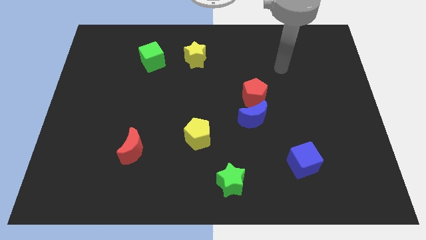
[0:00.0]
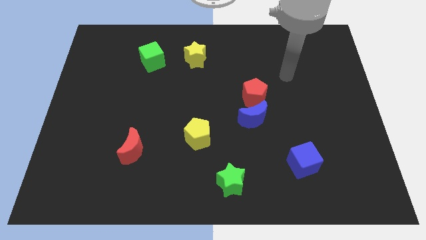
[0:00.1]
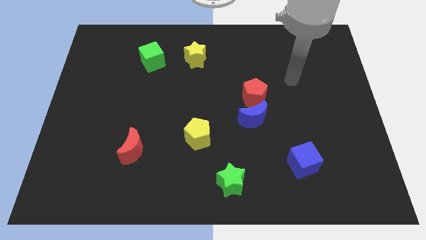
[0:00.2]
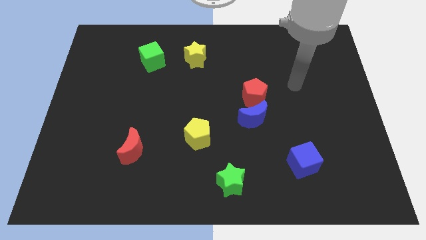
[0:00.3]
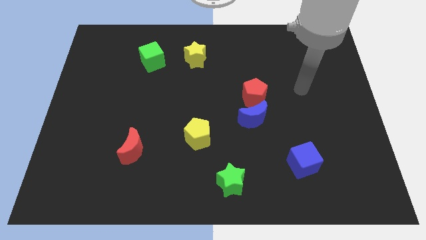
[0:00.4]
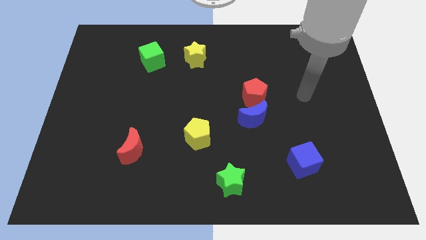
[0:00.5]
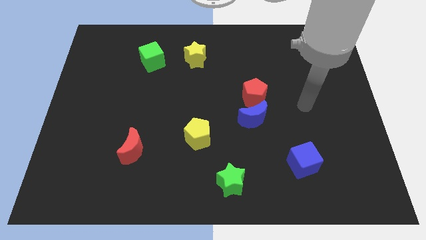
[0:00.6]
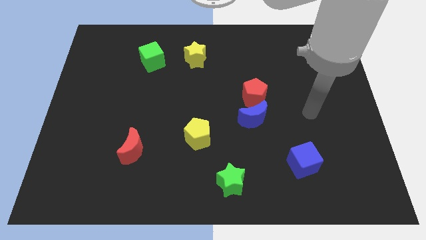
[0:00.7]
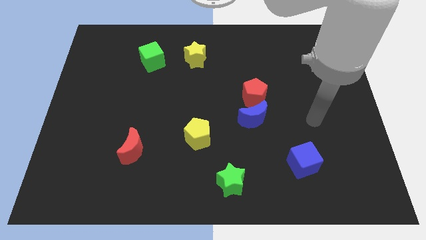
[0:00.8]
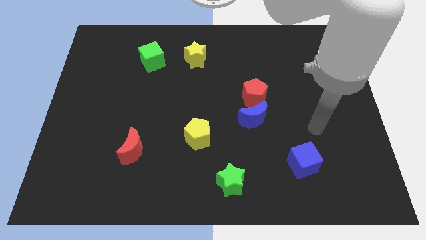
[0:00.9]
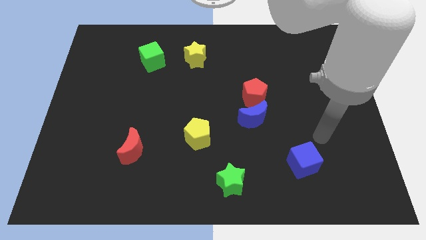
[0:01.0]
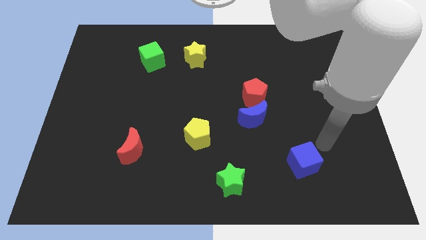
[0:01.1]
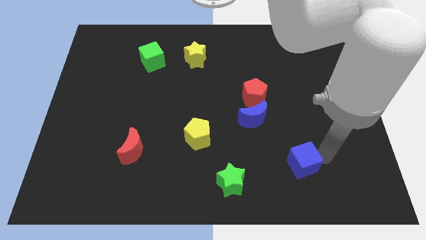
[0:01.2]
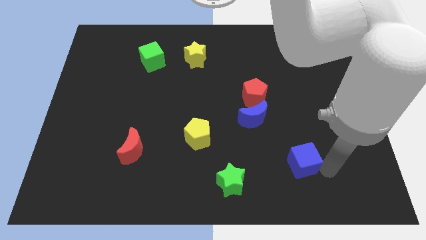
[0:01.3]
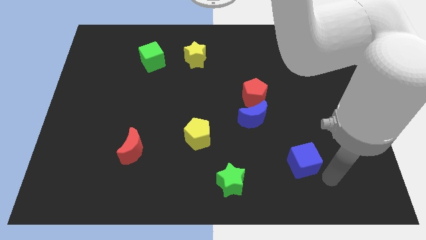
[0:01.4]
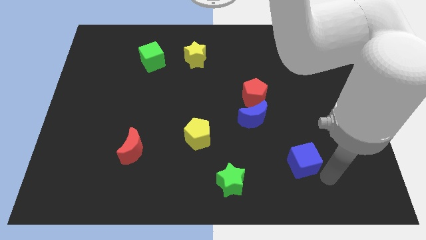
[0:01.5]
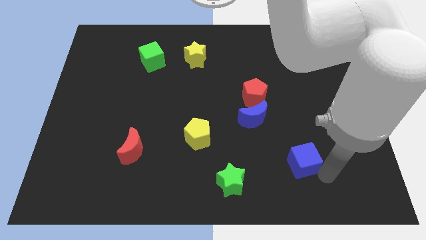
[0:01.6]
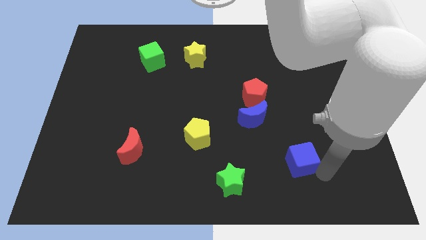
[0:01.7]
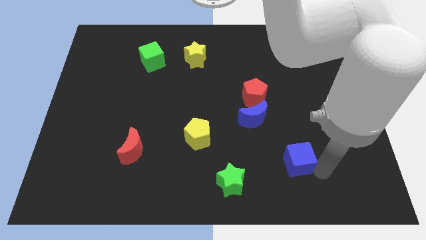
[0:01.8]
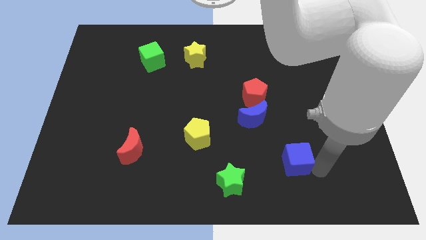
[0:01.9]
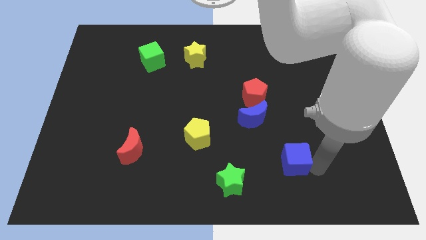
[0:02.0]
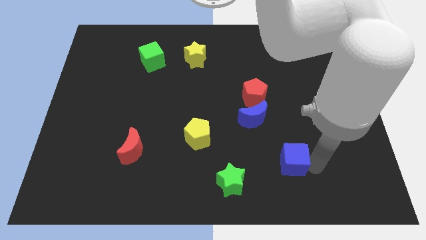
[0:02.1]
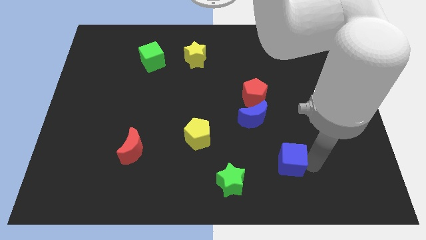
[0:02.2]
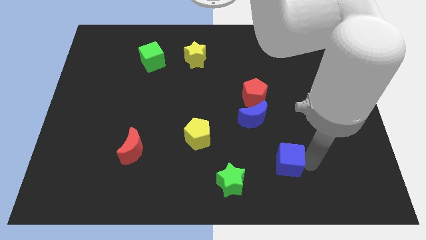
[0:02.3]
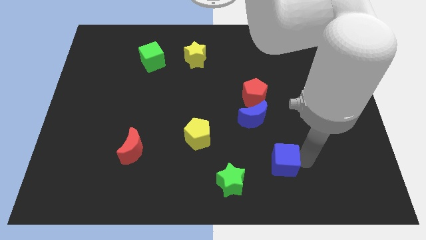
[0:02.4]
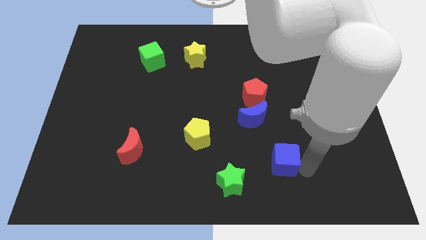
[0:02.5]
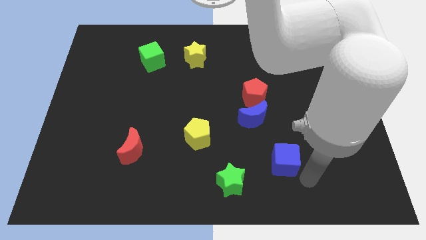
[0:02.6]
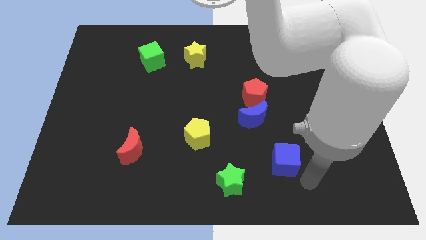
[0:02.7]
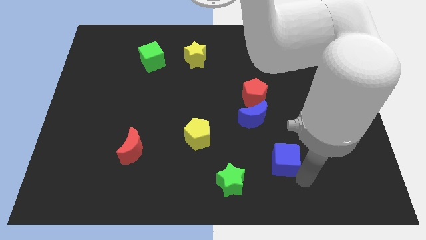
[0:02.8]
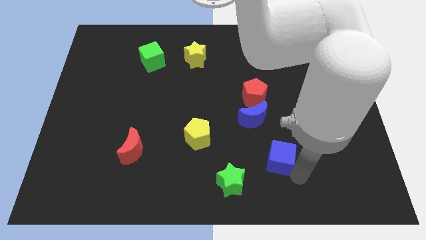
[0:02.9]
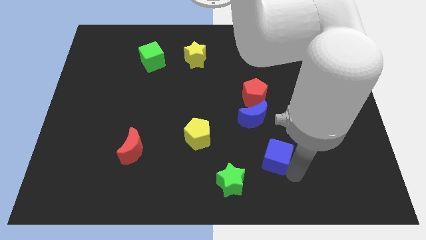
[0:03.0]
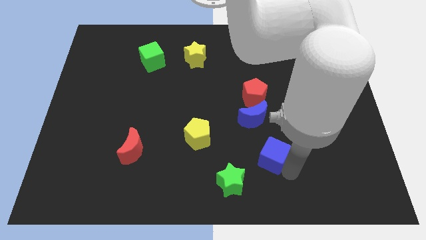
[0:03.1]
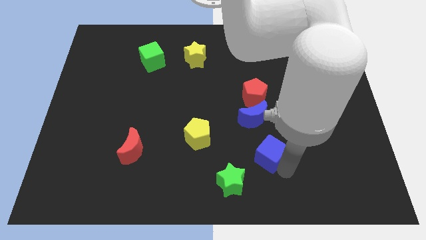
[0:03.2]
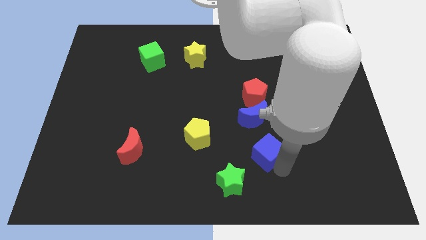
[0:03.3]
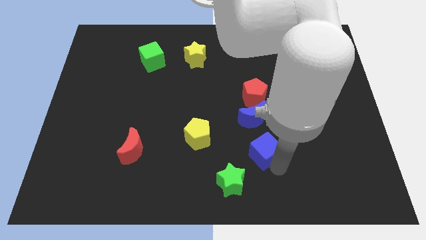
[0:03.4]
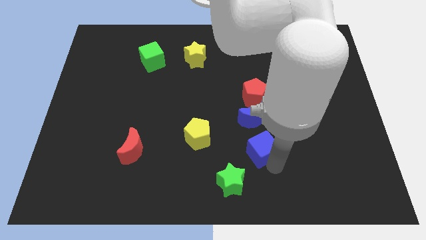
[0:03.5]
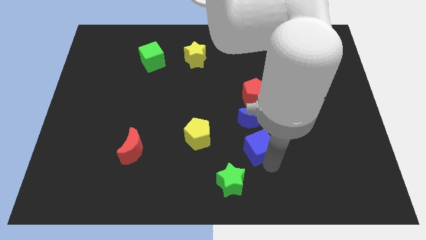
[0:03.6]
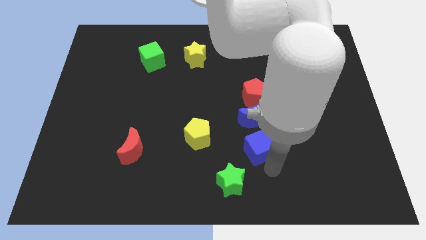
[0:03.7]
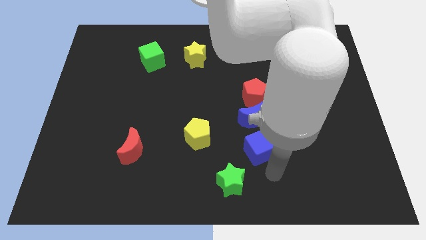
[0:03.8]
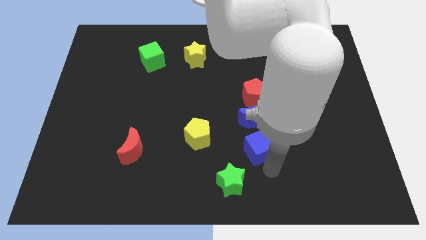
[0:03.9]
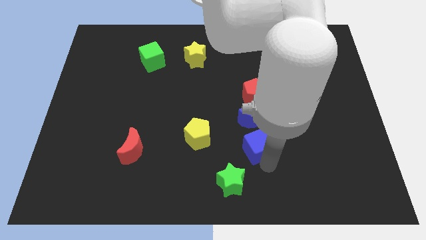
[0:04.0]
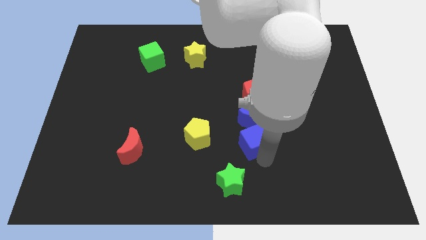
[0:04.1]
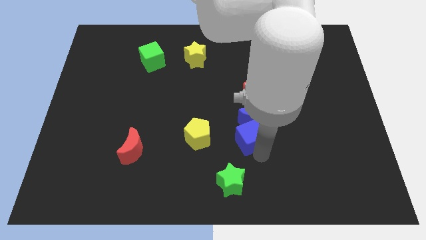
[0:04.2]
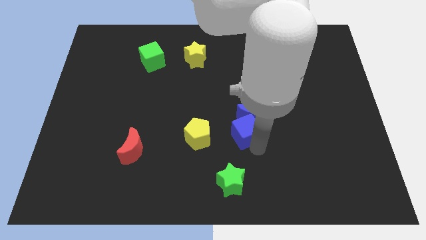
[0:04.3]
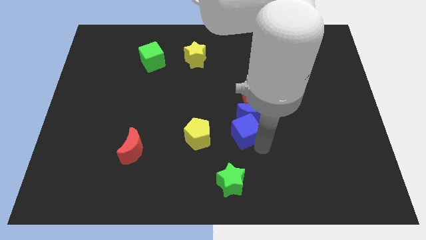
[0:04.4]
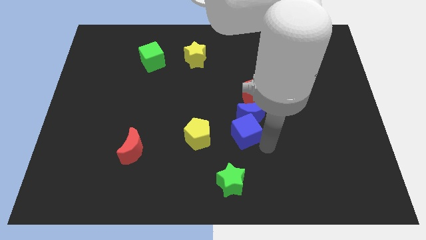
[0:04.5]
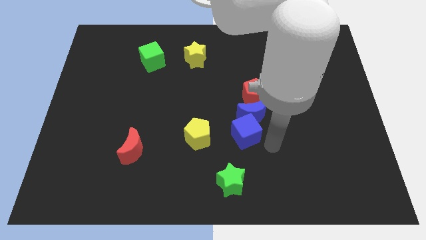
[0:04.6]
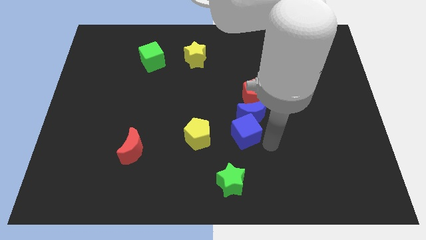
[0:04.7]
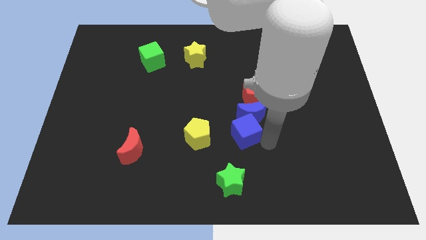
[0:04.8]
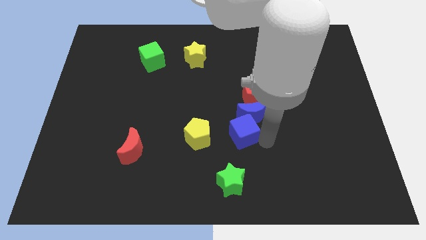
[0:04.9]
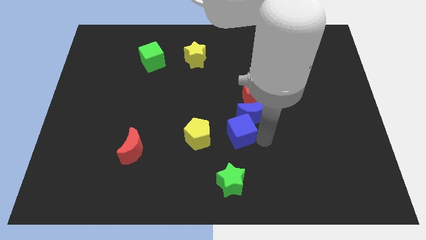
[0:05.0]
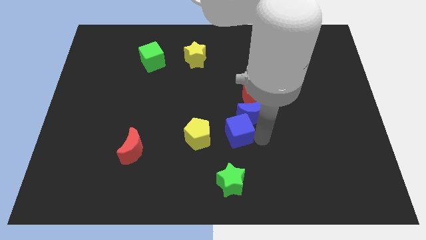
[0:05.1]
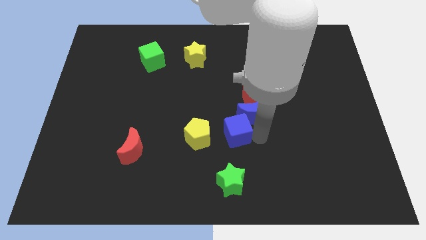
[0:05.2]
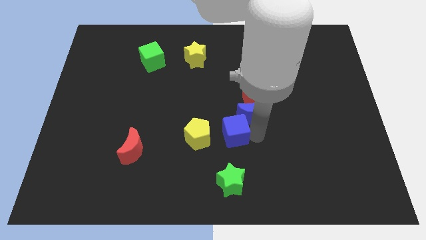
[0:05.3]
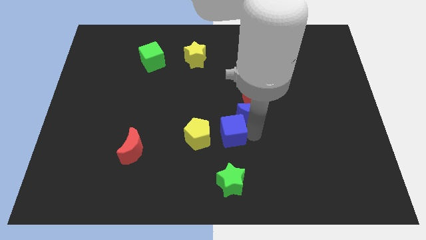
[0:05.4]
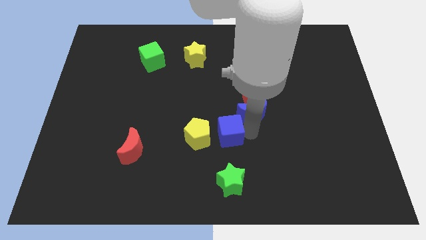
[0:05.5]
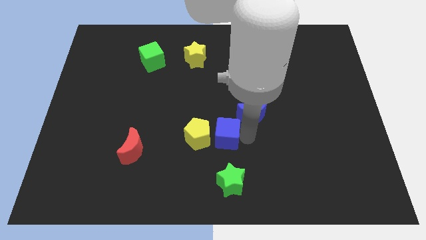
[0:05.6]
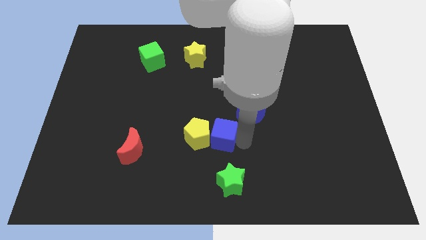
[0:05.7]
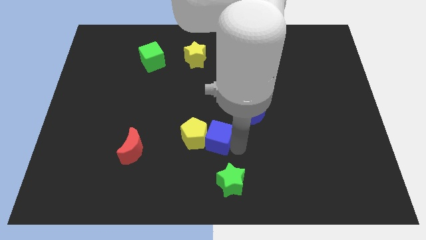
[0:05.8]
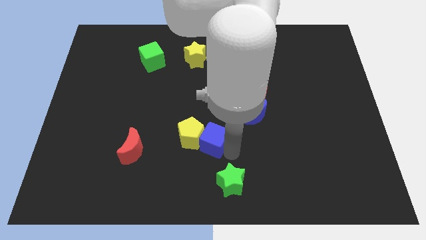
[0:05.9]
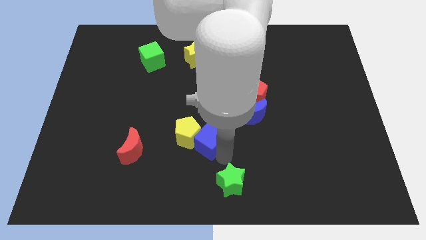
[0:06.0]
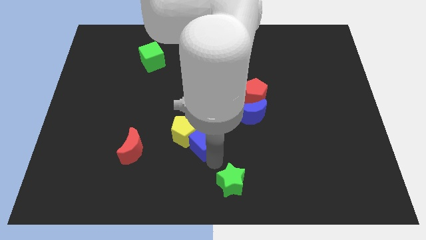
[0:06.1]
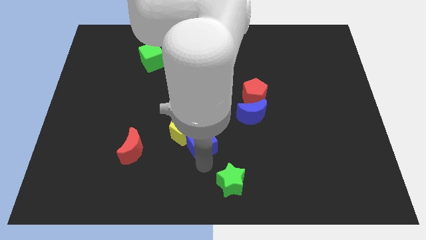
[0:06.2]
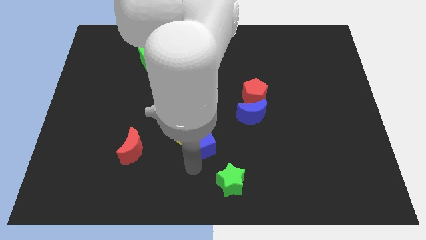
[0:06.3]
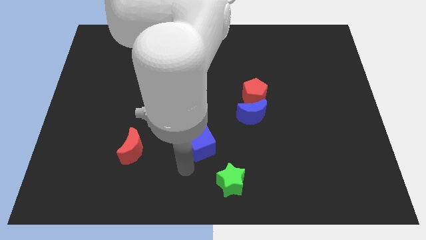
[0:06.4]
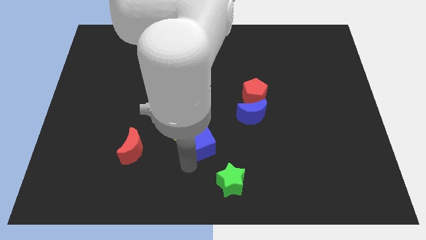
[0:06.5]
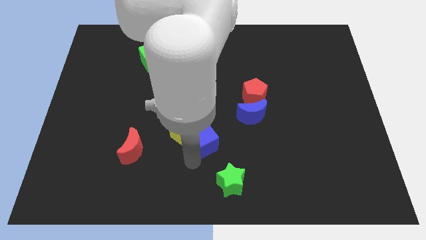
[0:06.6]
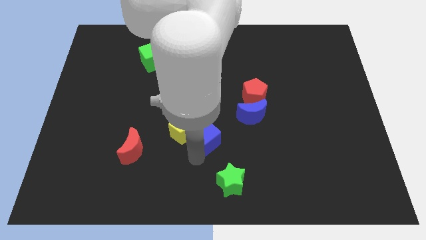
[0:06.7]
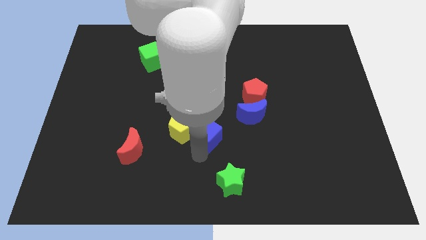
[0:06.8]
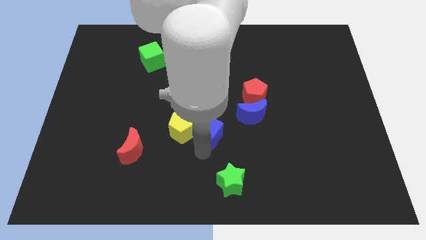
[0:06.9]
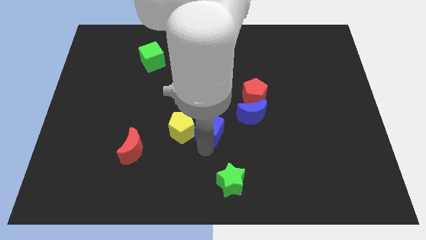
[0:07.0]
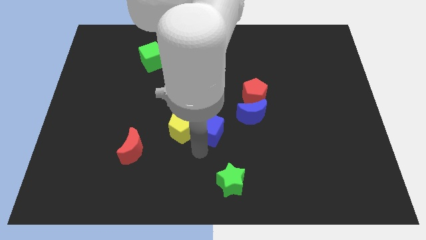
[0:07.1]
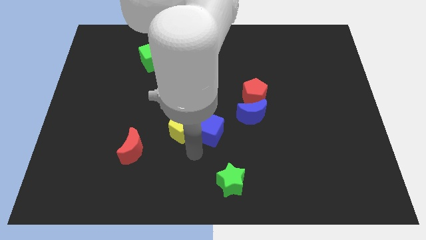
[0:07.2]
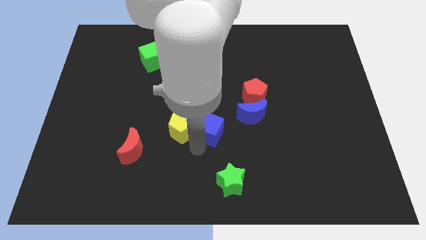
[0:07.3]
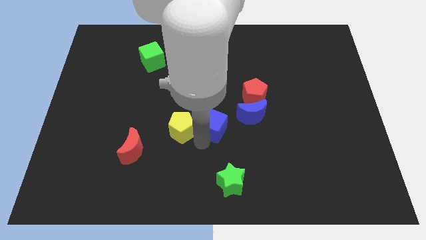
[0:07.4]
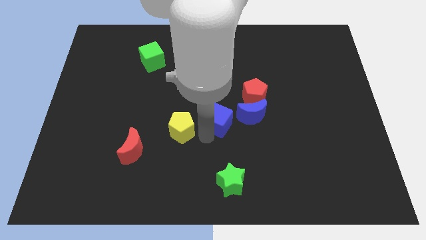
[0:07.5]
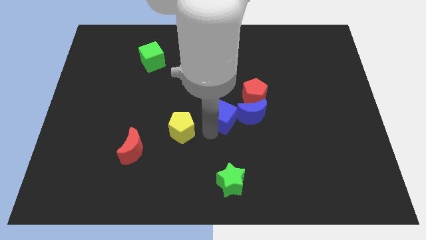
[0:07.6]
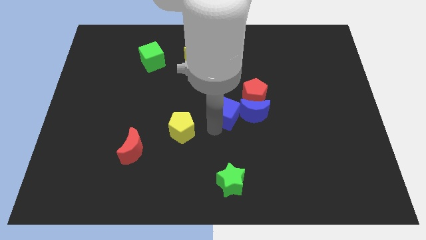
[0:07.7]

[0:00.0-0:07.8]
move the blue cube up and left

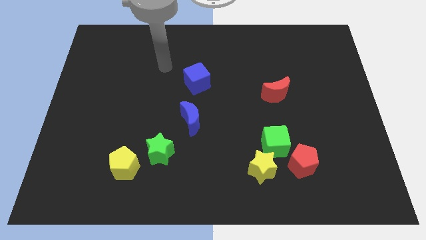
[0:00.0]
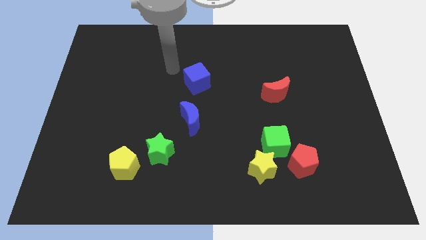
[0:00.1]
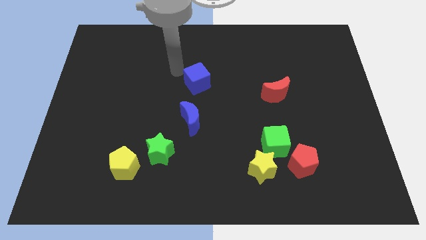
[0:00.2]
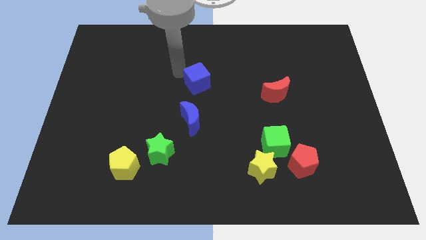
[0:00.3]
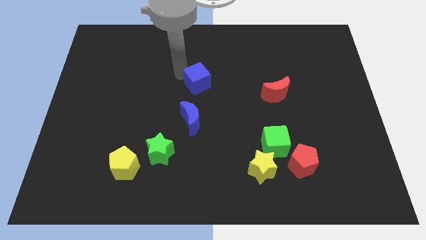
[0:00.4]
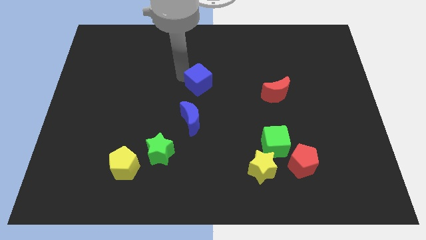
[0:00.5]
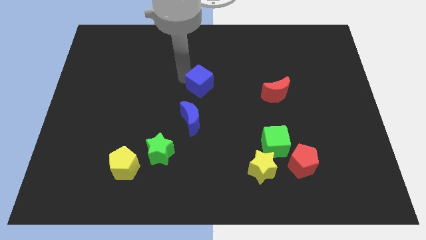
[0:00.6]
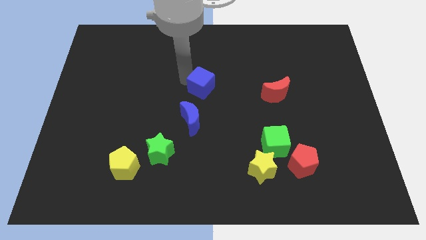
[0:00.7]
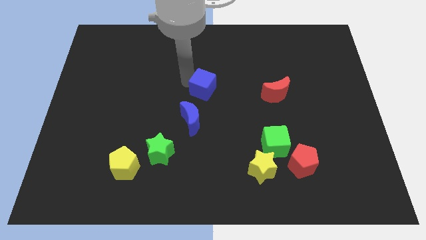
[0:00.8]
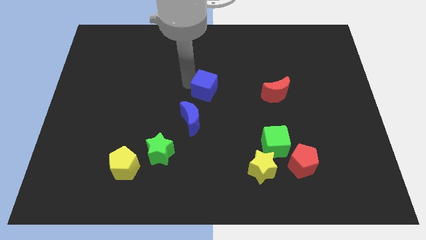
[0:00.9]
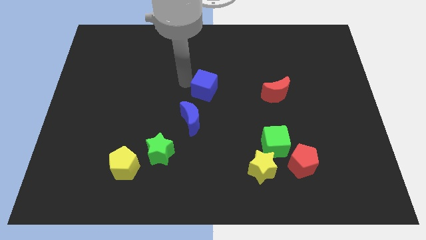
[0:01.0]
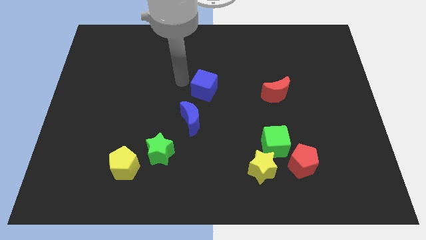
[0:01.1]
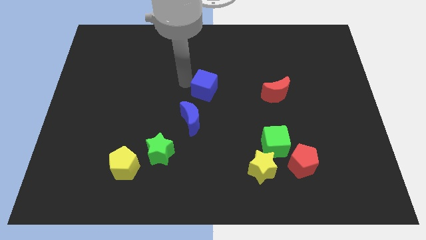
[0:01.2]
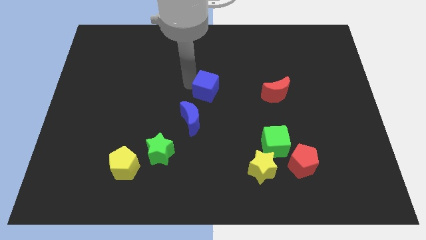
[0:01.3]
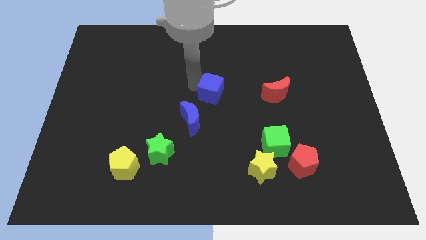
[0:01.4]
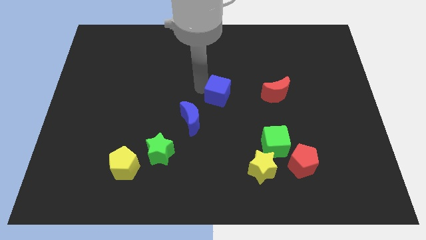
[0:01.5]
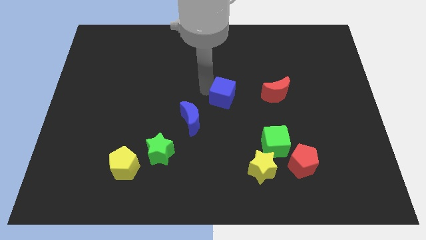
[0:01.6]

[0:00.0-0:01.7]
slide the blue cube diagonally down and right a little
